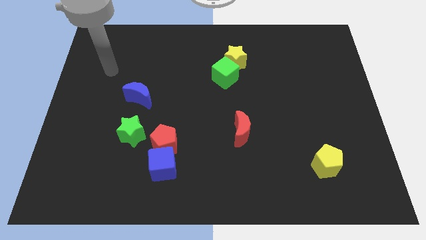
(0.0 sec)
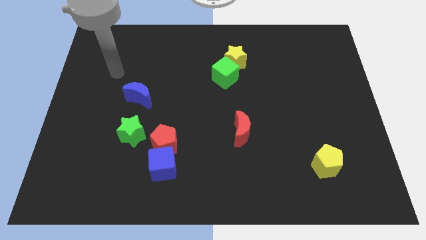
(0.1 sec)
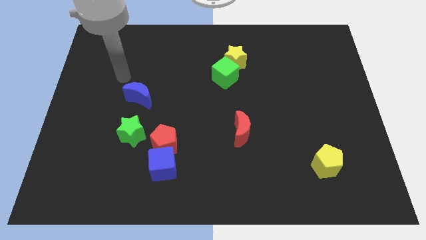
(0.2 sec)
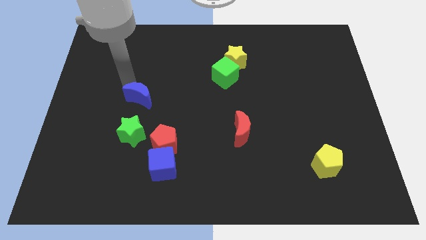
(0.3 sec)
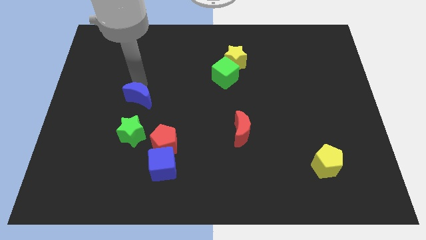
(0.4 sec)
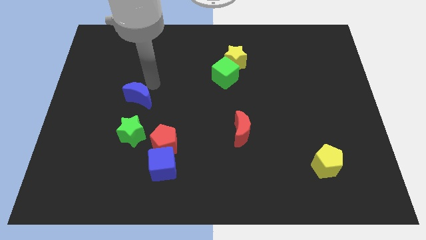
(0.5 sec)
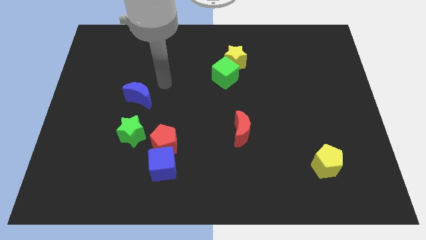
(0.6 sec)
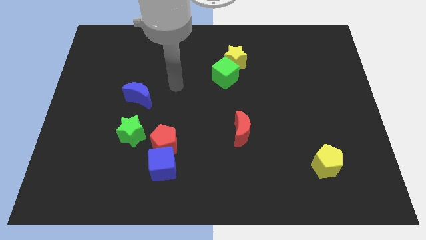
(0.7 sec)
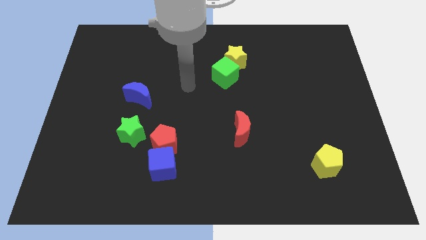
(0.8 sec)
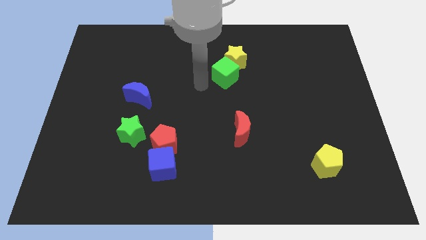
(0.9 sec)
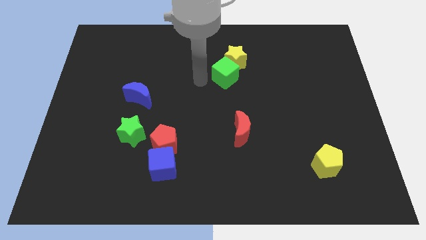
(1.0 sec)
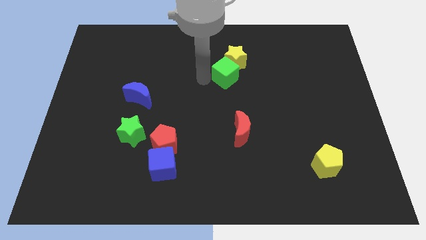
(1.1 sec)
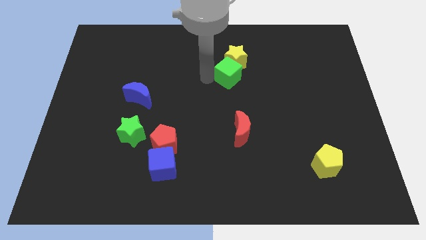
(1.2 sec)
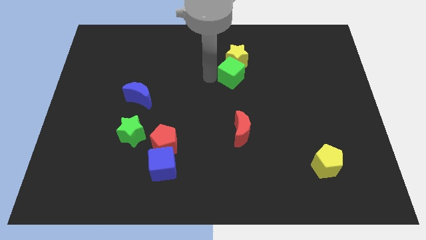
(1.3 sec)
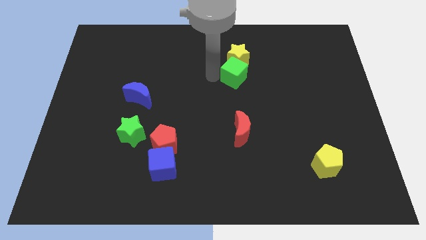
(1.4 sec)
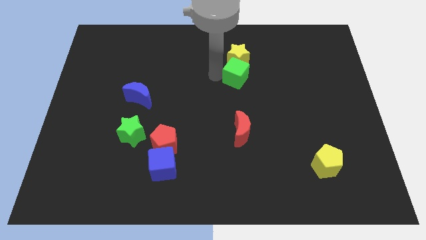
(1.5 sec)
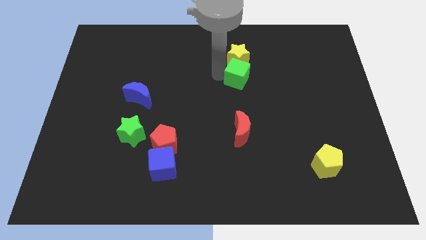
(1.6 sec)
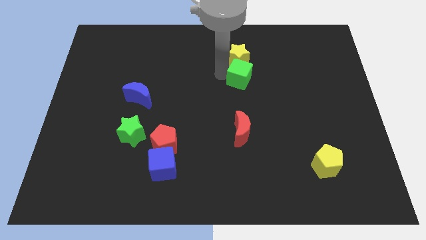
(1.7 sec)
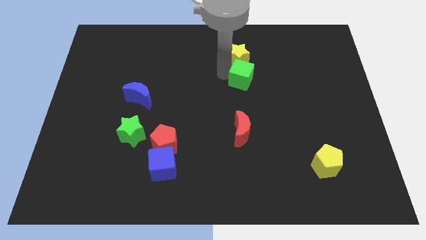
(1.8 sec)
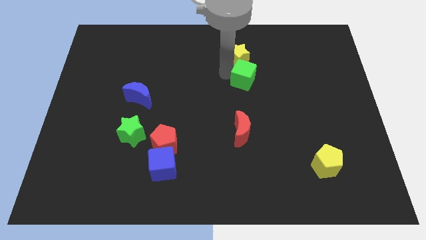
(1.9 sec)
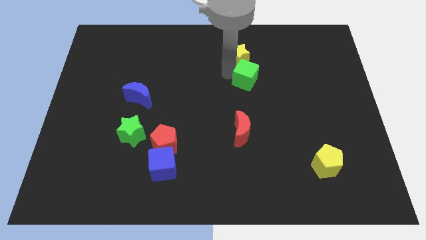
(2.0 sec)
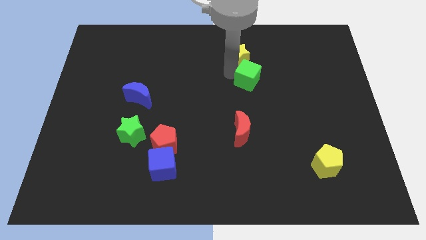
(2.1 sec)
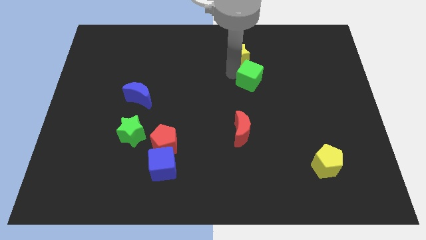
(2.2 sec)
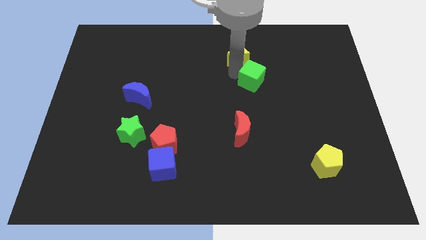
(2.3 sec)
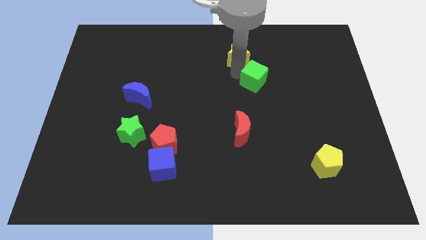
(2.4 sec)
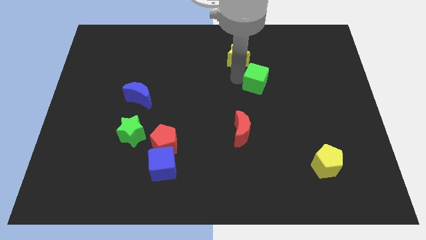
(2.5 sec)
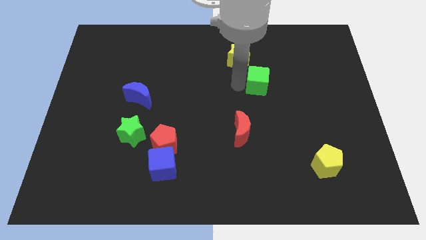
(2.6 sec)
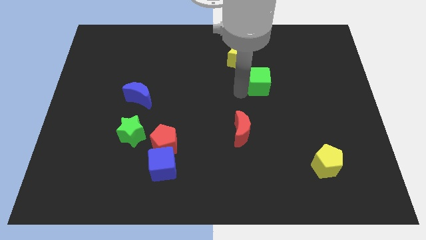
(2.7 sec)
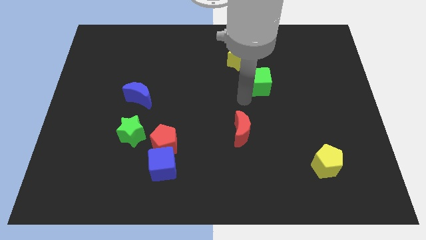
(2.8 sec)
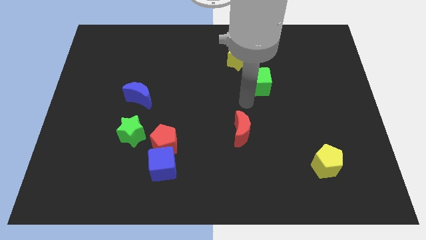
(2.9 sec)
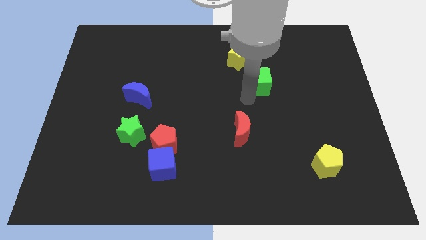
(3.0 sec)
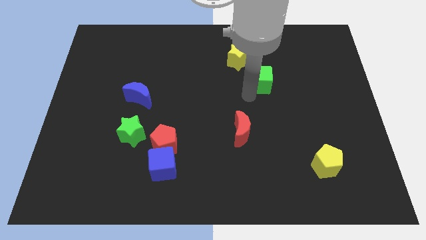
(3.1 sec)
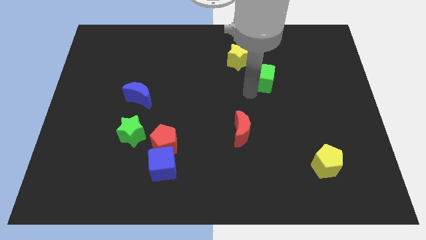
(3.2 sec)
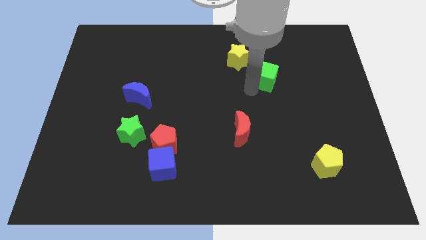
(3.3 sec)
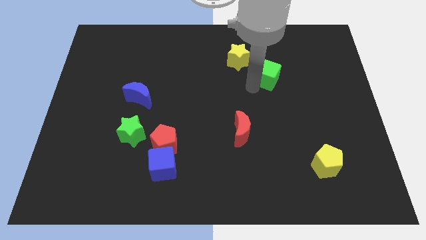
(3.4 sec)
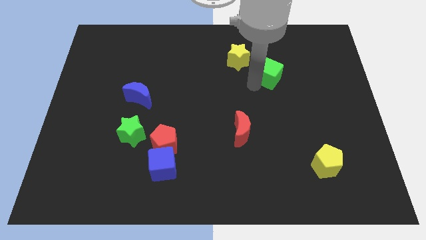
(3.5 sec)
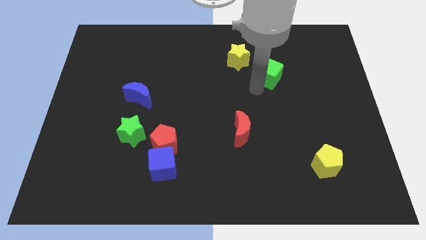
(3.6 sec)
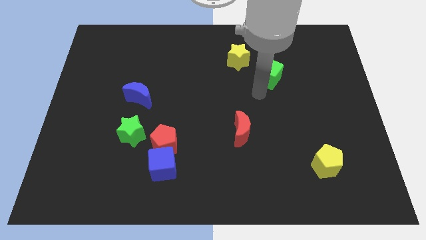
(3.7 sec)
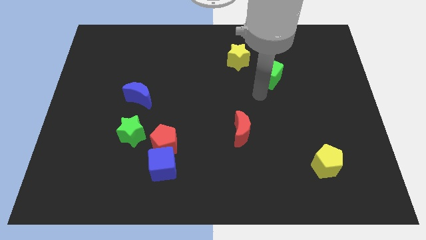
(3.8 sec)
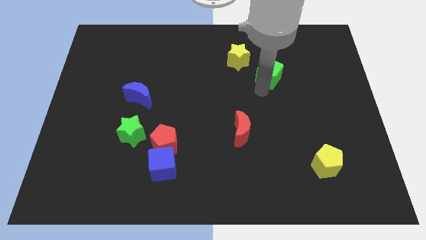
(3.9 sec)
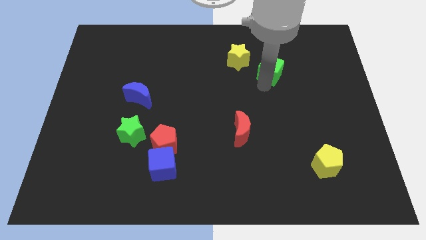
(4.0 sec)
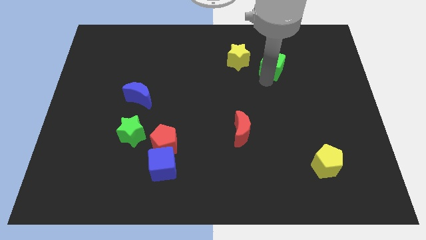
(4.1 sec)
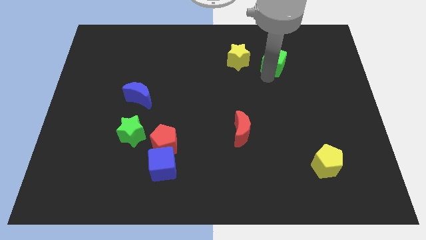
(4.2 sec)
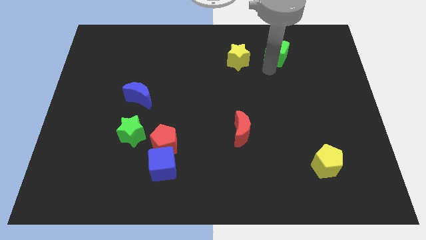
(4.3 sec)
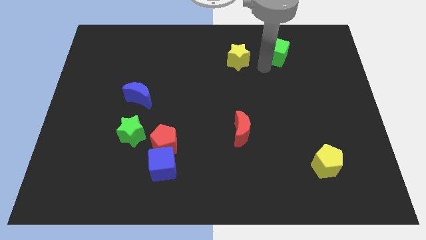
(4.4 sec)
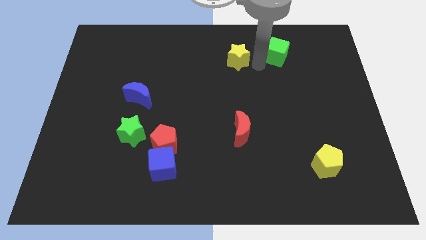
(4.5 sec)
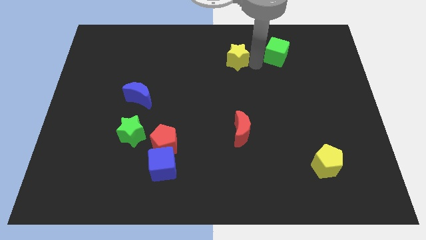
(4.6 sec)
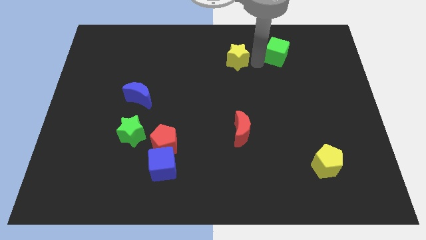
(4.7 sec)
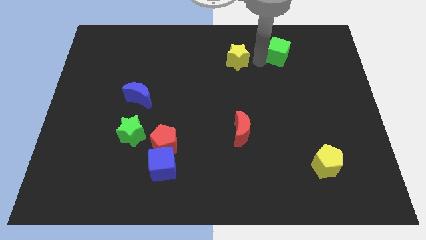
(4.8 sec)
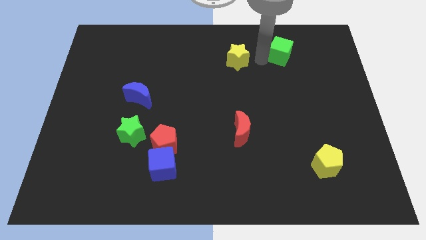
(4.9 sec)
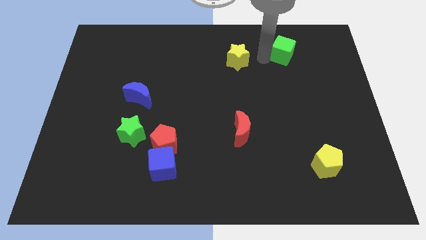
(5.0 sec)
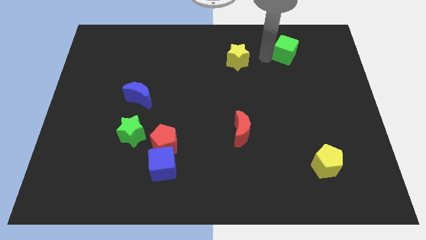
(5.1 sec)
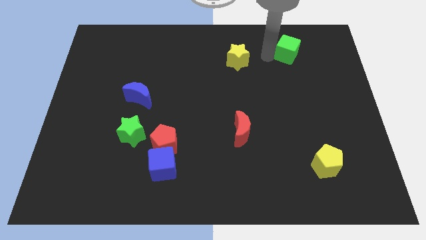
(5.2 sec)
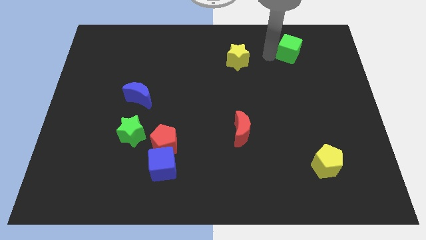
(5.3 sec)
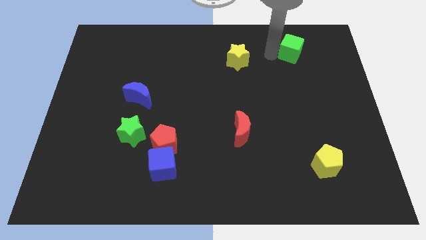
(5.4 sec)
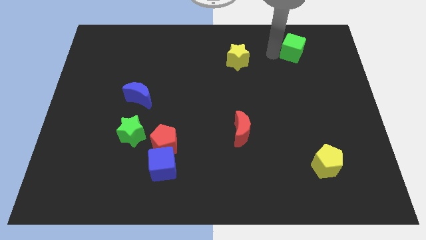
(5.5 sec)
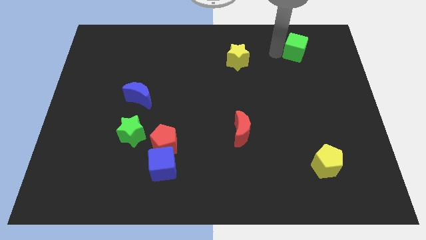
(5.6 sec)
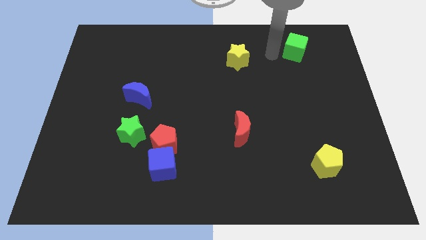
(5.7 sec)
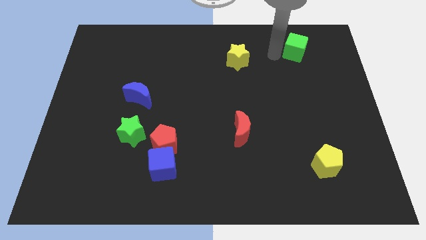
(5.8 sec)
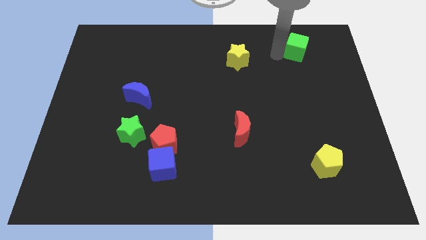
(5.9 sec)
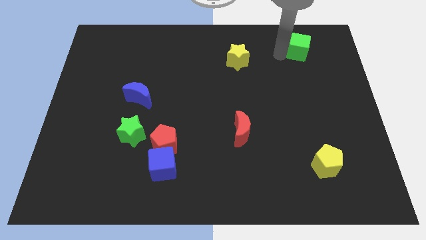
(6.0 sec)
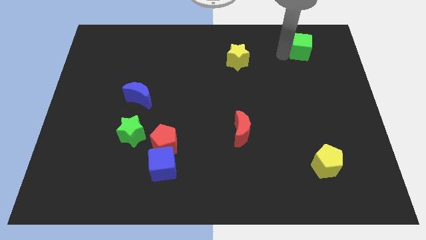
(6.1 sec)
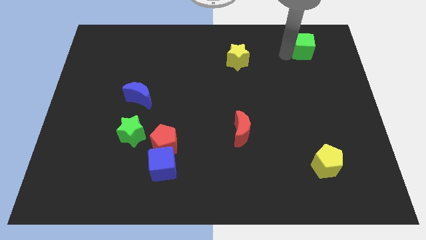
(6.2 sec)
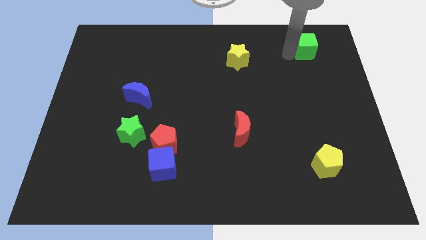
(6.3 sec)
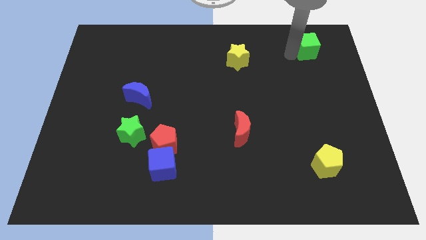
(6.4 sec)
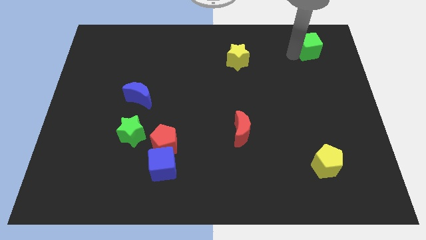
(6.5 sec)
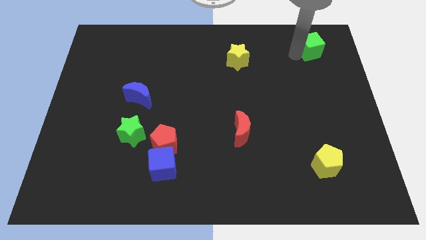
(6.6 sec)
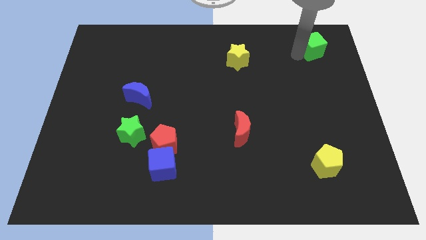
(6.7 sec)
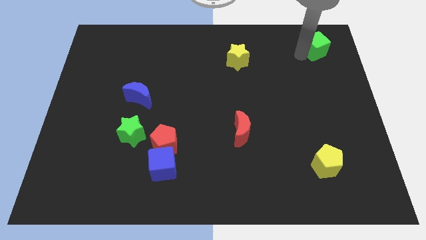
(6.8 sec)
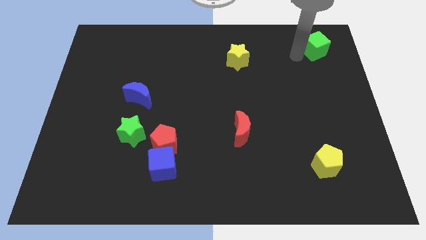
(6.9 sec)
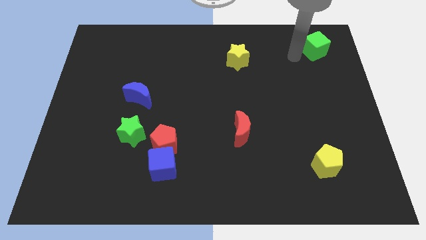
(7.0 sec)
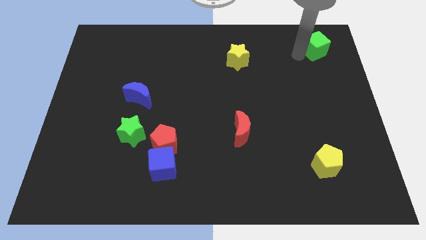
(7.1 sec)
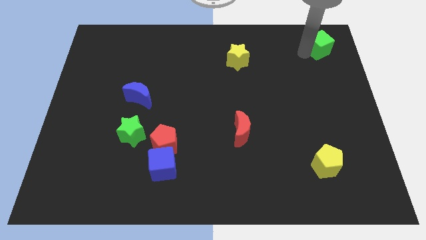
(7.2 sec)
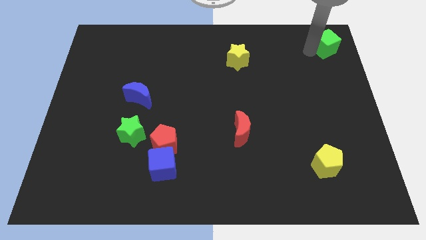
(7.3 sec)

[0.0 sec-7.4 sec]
move the green cube to the top right corner
